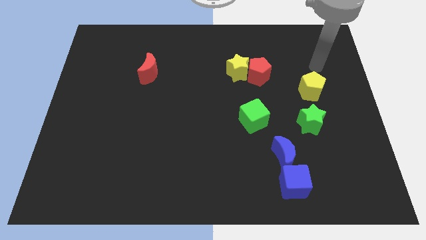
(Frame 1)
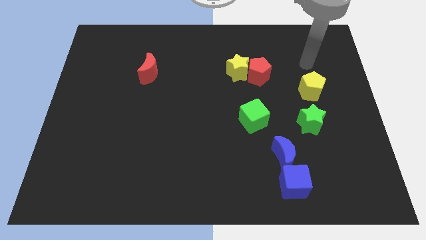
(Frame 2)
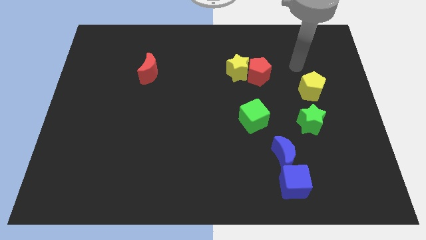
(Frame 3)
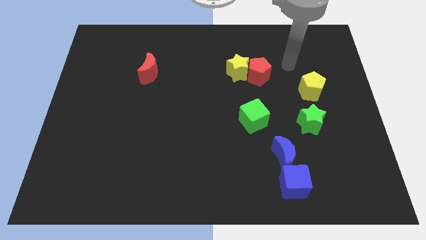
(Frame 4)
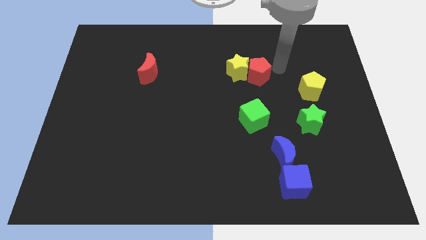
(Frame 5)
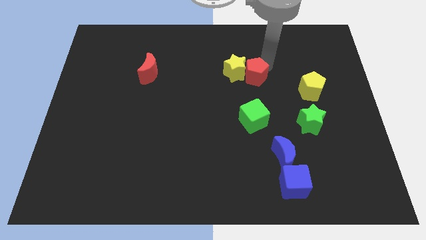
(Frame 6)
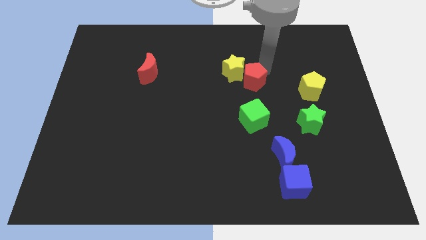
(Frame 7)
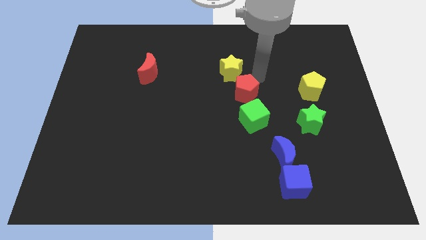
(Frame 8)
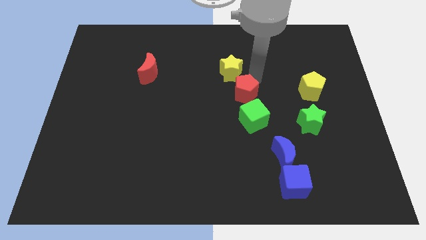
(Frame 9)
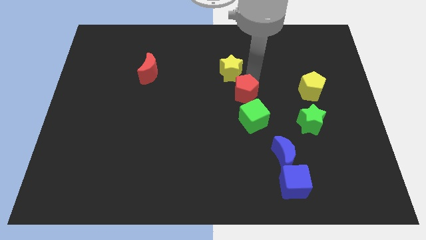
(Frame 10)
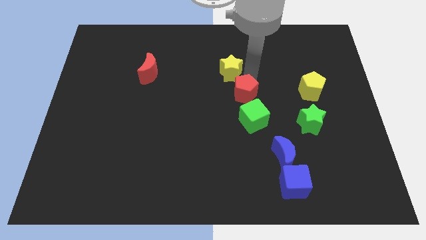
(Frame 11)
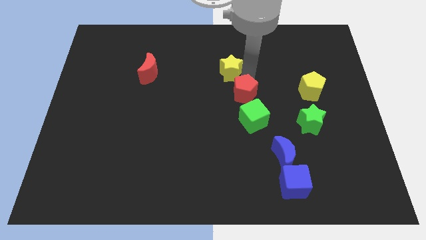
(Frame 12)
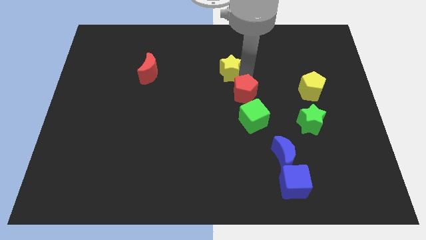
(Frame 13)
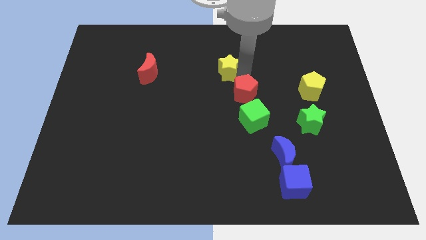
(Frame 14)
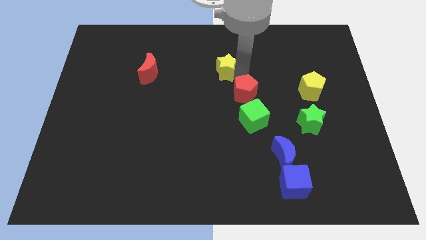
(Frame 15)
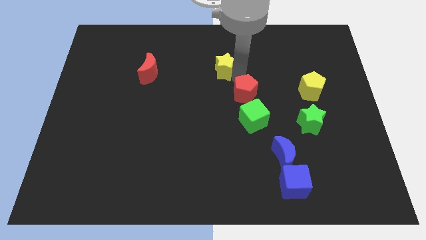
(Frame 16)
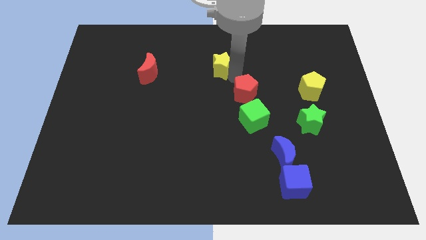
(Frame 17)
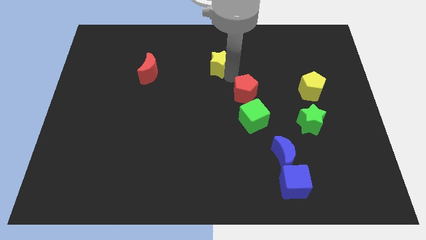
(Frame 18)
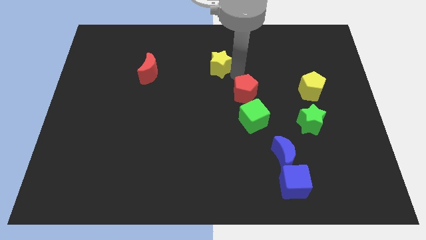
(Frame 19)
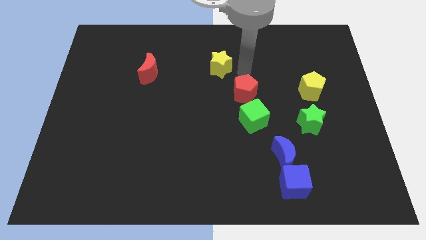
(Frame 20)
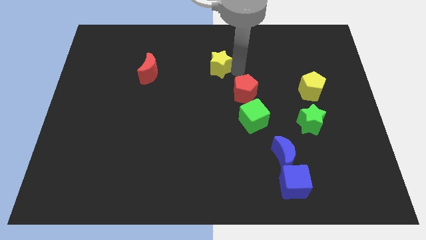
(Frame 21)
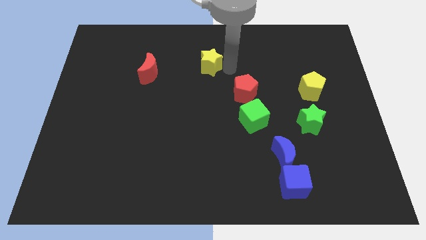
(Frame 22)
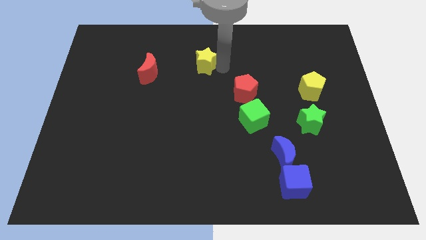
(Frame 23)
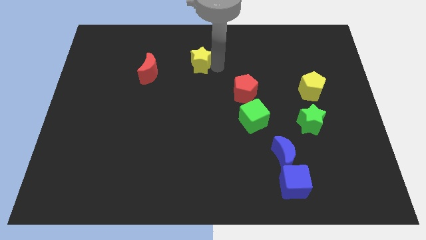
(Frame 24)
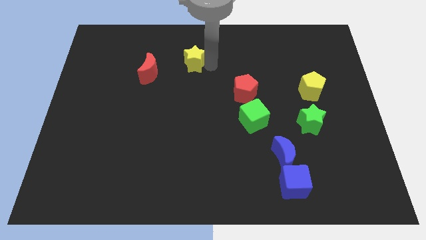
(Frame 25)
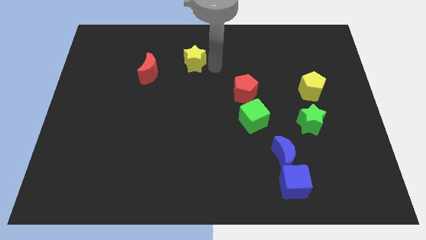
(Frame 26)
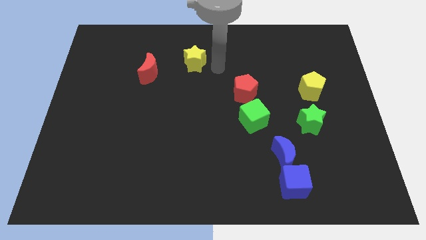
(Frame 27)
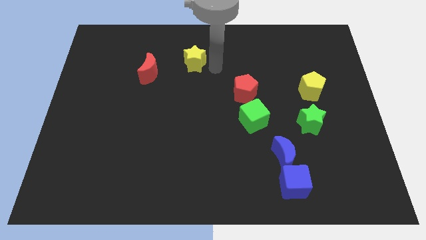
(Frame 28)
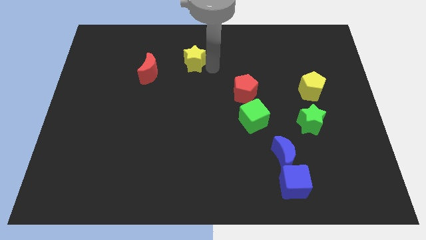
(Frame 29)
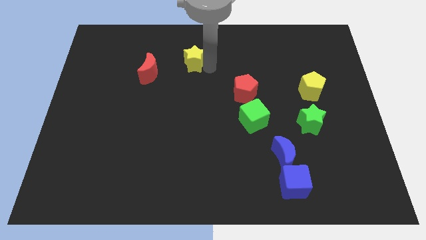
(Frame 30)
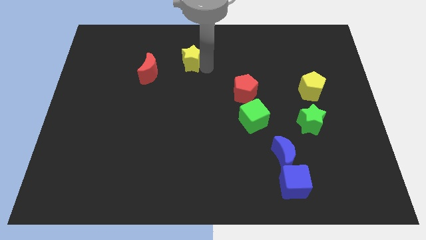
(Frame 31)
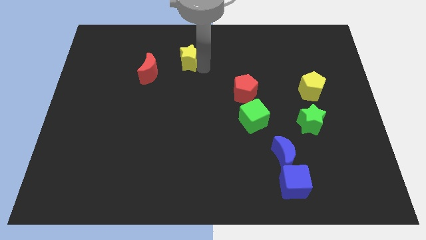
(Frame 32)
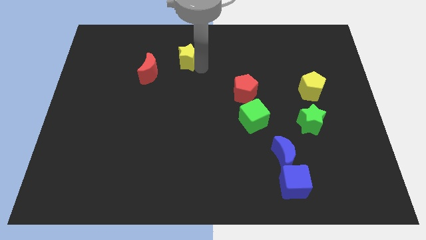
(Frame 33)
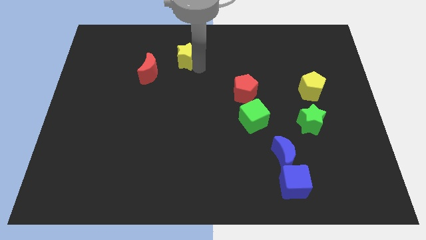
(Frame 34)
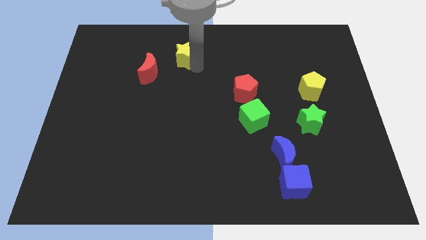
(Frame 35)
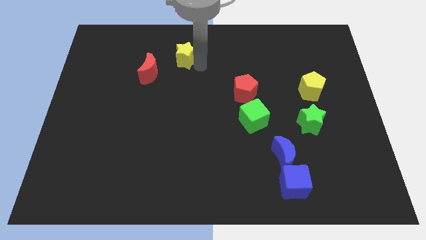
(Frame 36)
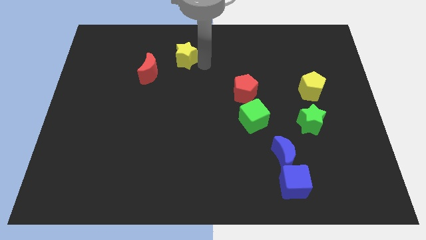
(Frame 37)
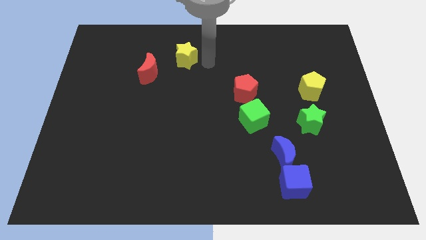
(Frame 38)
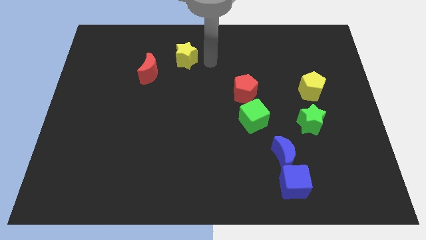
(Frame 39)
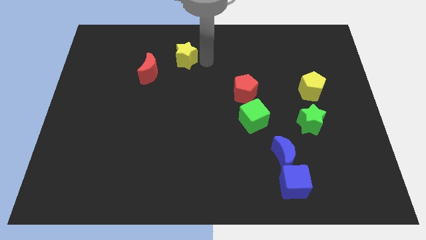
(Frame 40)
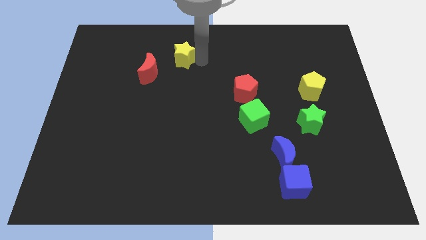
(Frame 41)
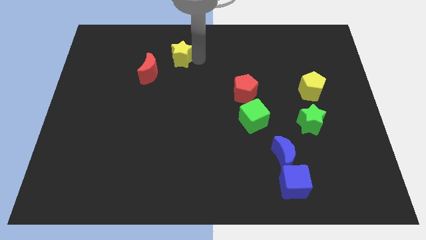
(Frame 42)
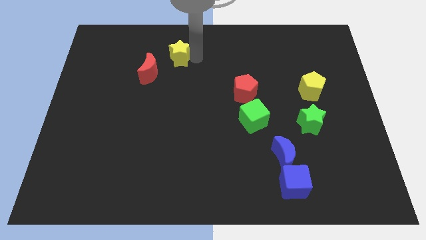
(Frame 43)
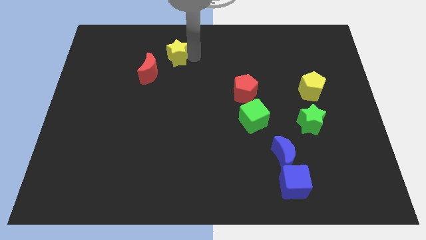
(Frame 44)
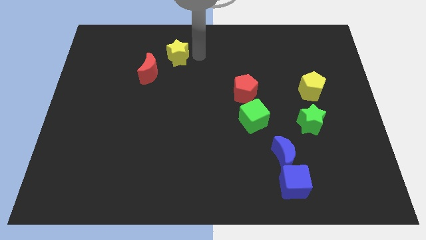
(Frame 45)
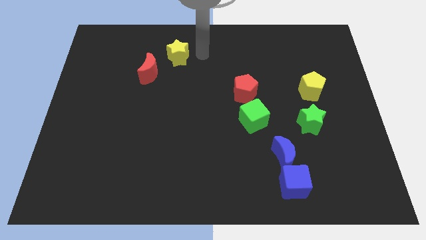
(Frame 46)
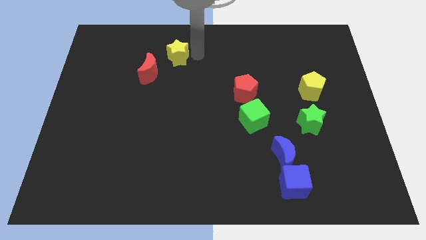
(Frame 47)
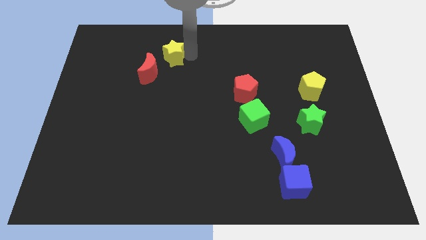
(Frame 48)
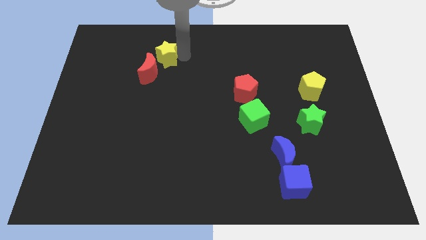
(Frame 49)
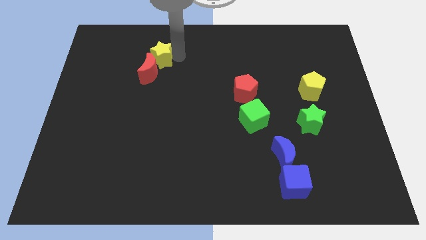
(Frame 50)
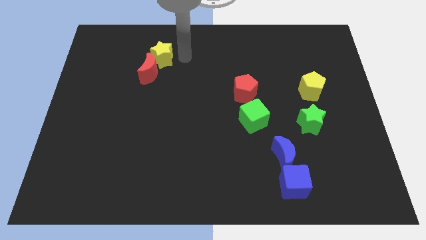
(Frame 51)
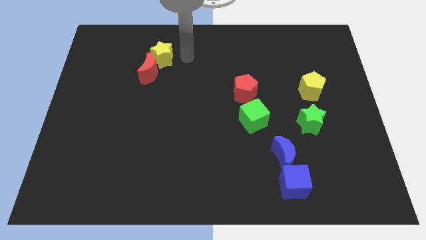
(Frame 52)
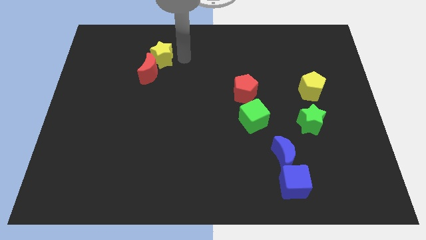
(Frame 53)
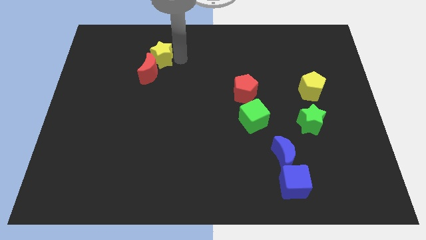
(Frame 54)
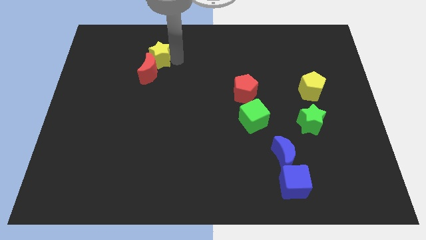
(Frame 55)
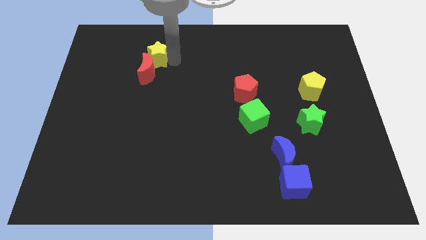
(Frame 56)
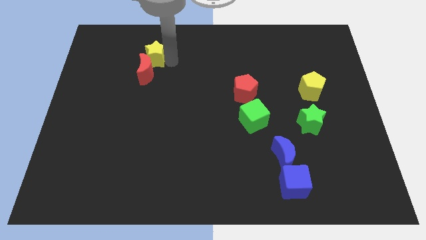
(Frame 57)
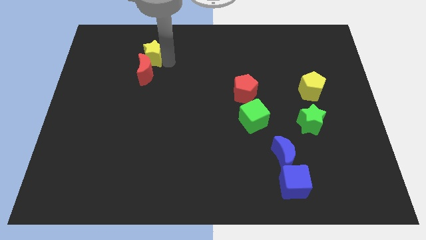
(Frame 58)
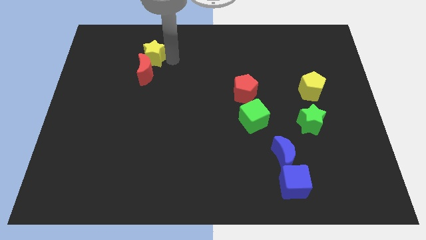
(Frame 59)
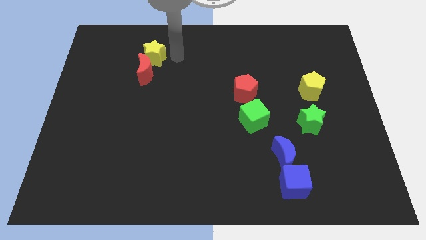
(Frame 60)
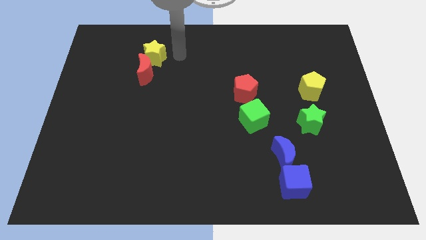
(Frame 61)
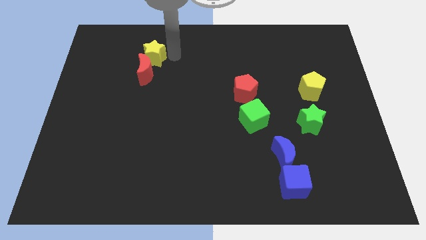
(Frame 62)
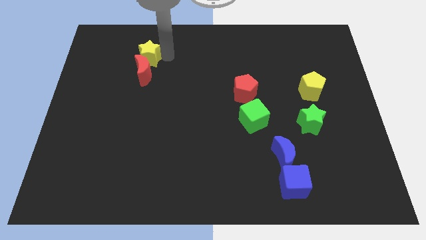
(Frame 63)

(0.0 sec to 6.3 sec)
move the yellow star to the top left side of the red moon

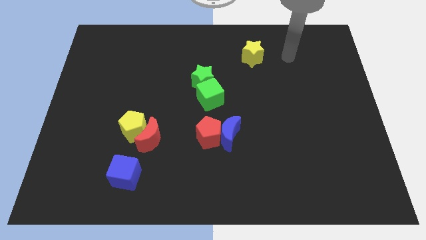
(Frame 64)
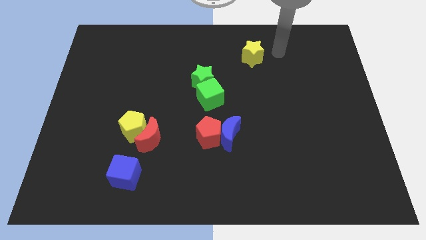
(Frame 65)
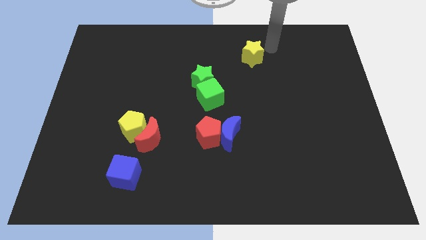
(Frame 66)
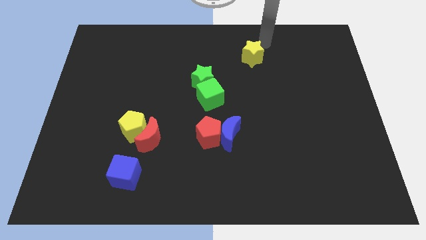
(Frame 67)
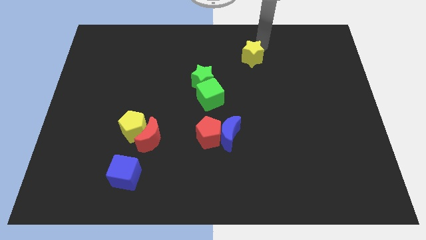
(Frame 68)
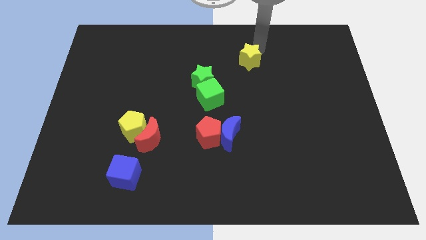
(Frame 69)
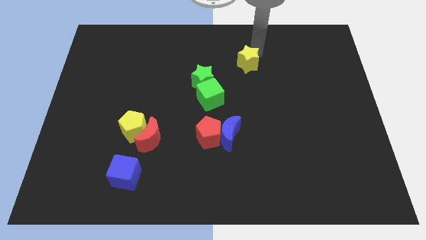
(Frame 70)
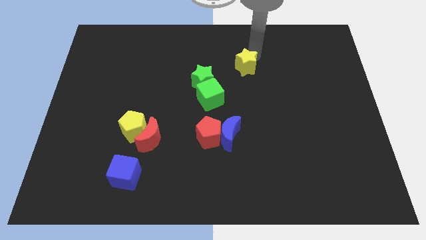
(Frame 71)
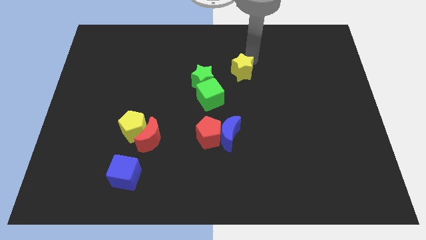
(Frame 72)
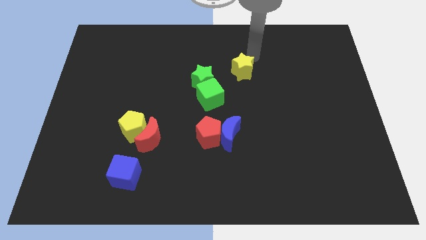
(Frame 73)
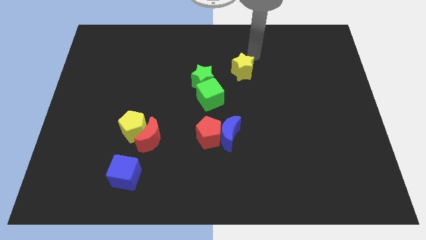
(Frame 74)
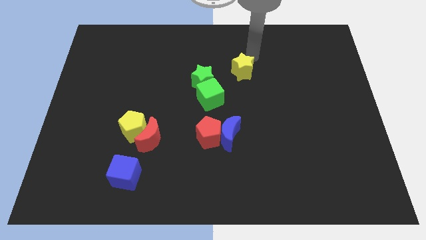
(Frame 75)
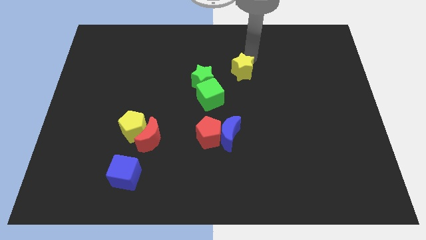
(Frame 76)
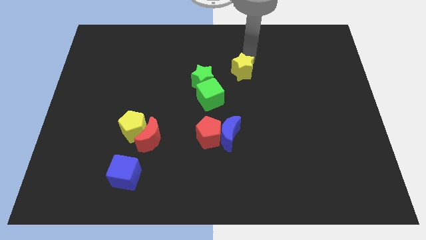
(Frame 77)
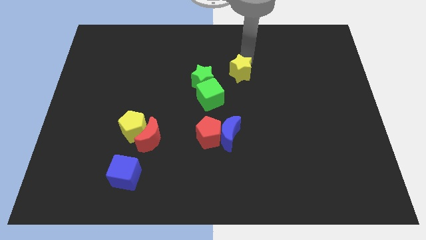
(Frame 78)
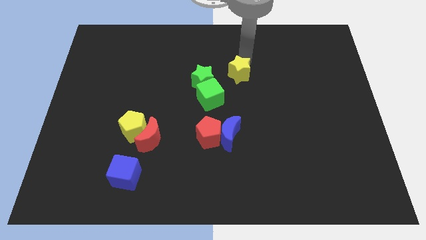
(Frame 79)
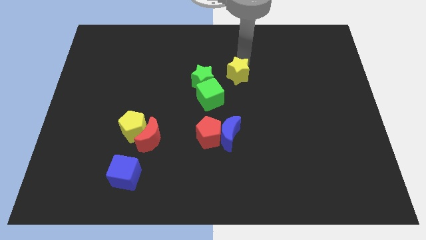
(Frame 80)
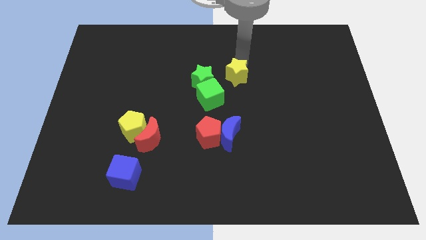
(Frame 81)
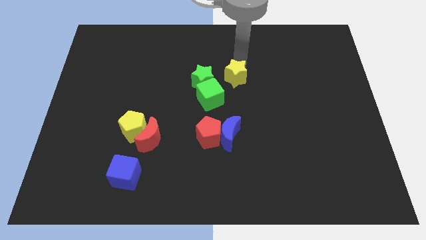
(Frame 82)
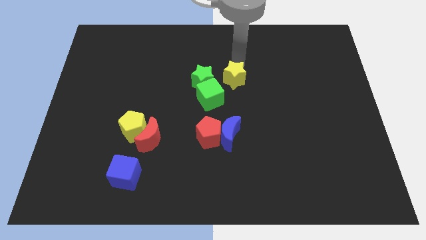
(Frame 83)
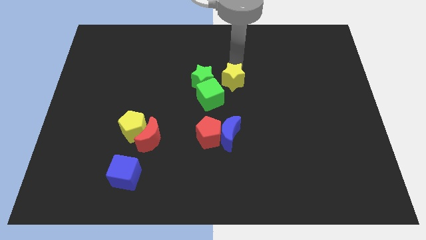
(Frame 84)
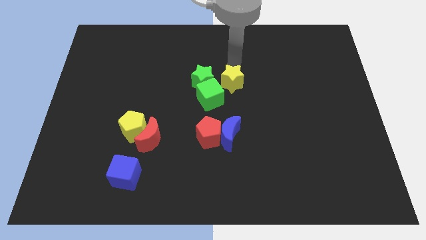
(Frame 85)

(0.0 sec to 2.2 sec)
put the yellow star above the blue moon
